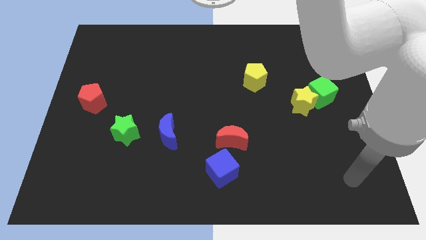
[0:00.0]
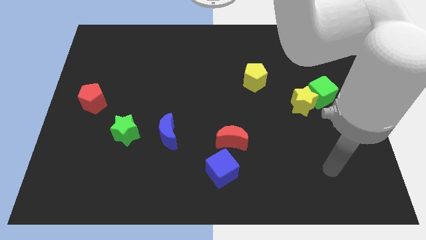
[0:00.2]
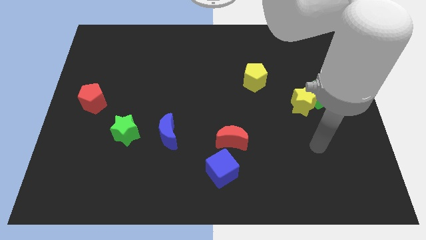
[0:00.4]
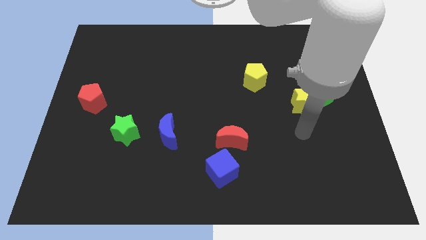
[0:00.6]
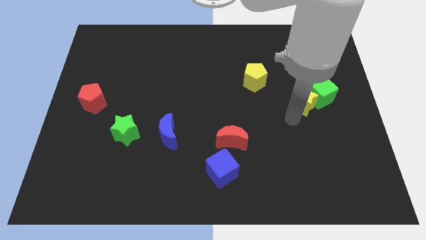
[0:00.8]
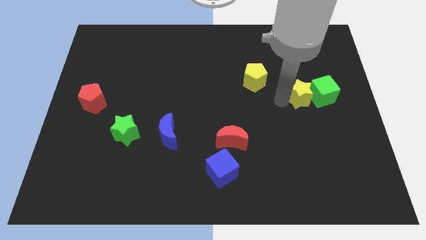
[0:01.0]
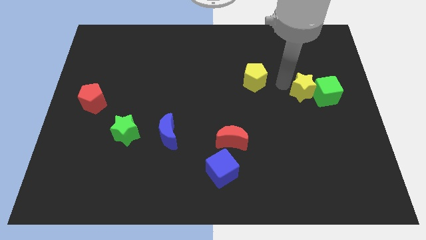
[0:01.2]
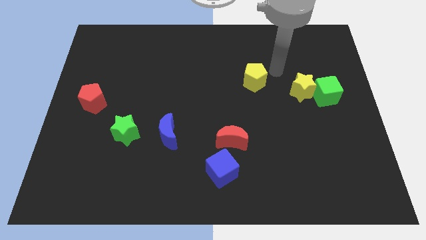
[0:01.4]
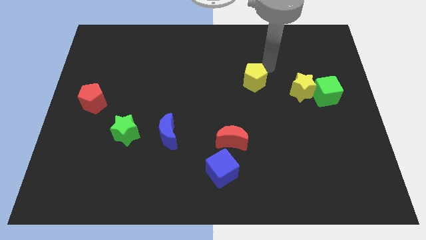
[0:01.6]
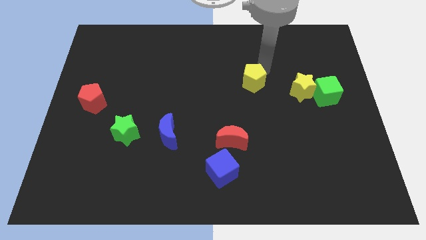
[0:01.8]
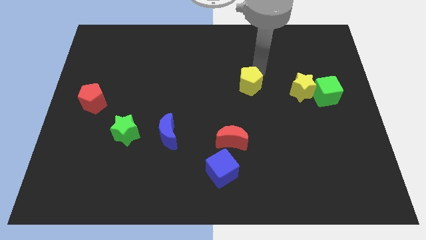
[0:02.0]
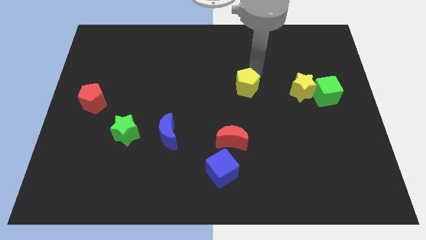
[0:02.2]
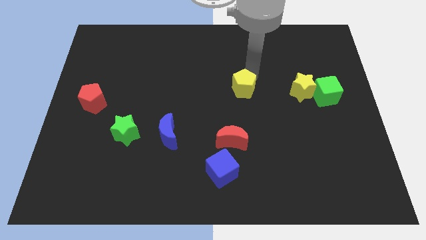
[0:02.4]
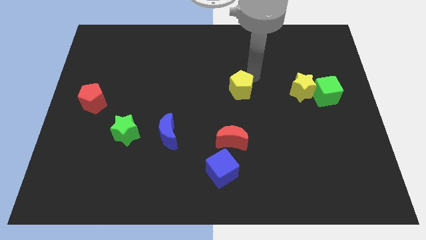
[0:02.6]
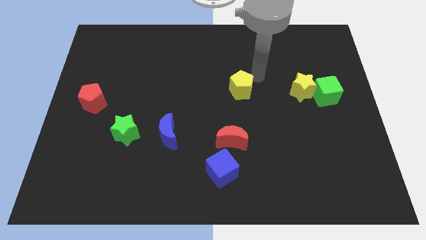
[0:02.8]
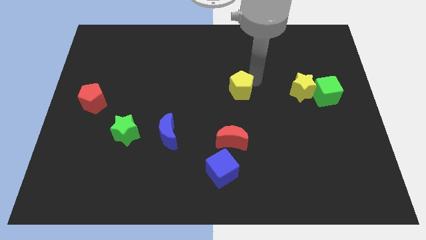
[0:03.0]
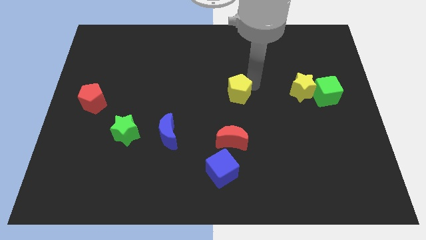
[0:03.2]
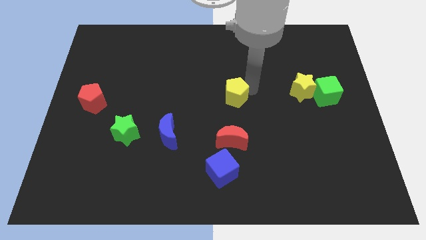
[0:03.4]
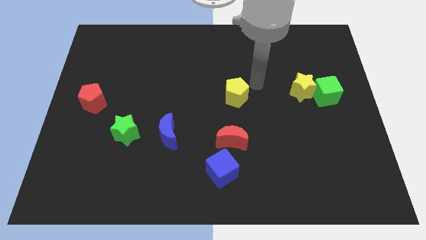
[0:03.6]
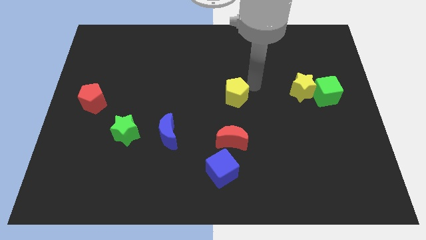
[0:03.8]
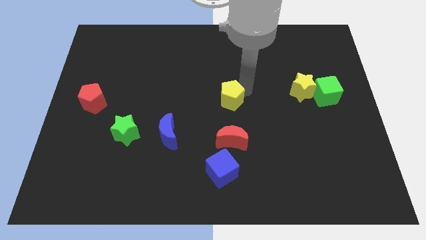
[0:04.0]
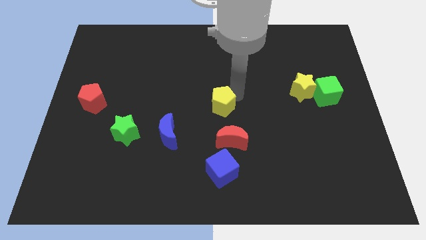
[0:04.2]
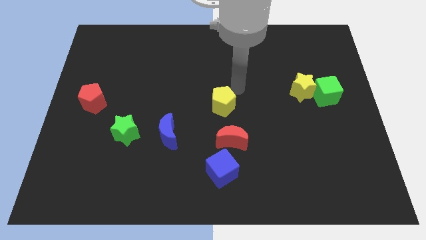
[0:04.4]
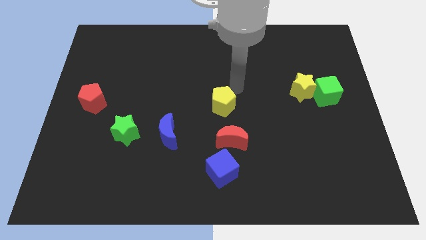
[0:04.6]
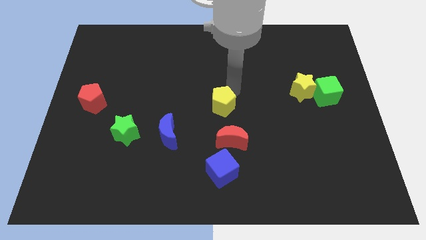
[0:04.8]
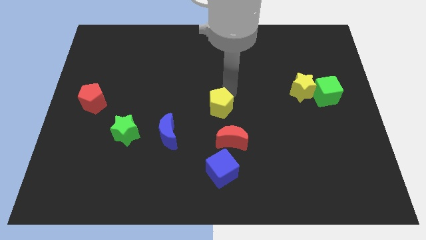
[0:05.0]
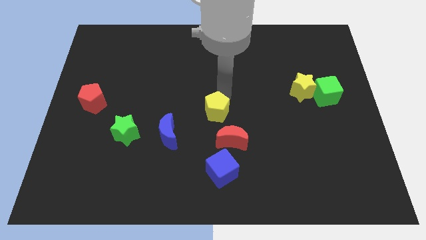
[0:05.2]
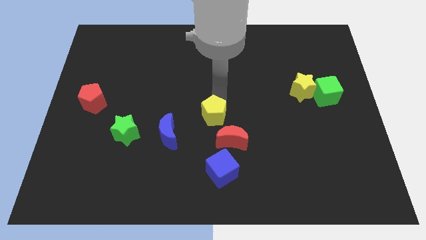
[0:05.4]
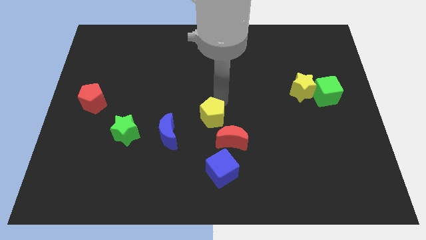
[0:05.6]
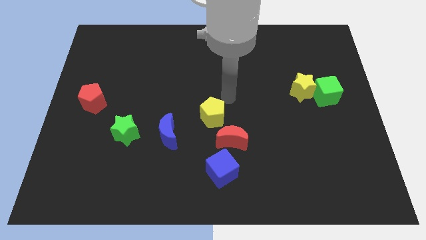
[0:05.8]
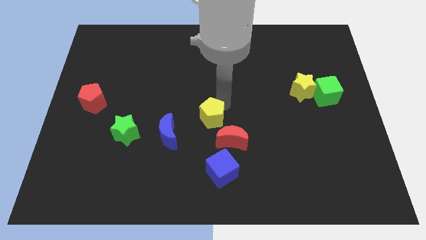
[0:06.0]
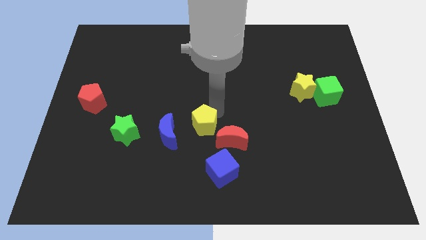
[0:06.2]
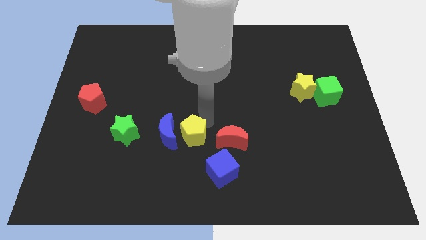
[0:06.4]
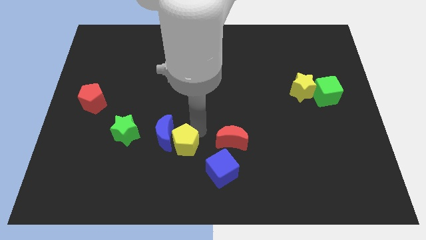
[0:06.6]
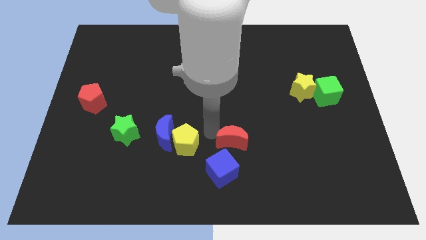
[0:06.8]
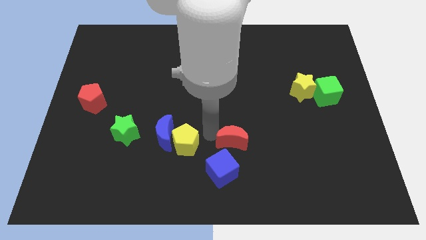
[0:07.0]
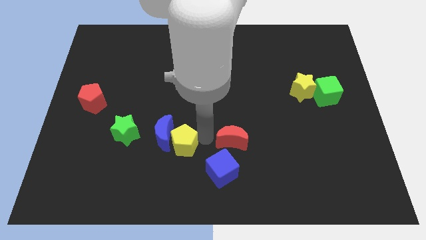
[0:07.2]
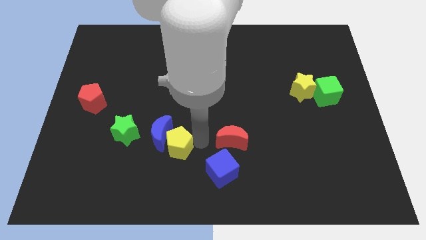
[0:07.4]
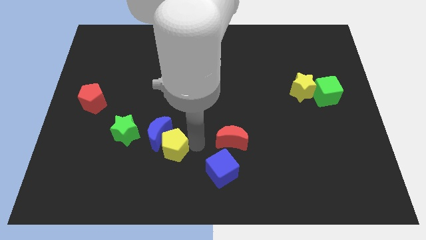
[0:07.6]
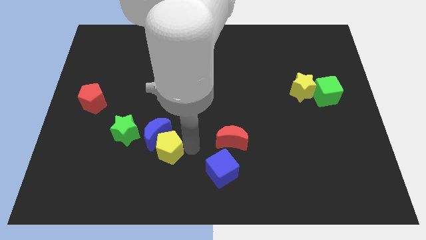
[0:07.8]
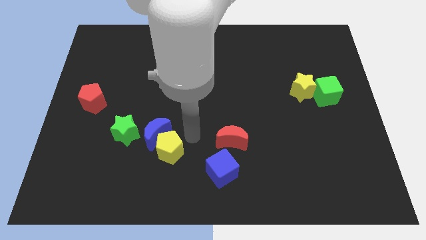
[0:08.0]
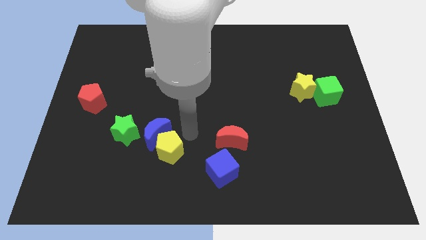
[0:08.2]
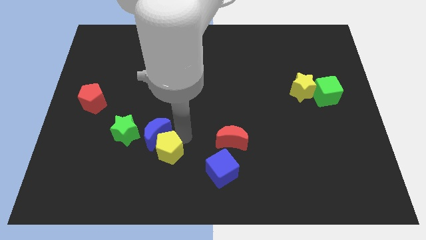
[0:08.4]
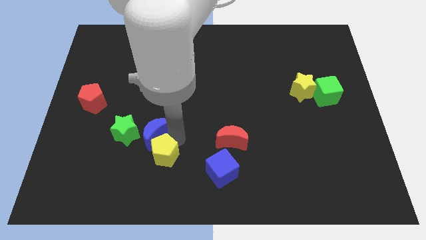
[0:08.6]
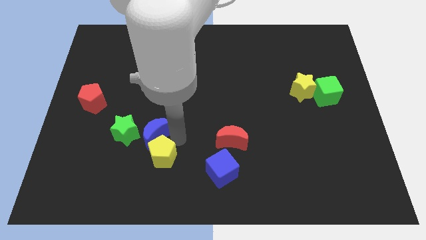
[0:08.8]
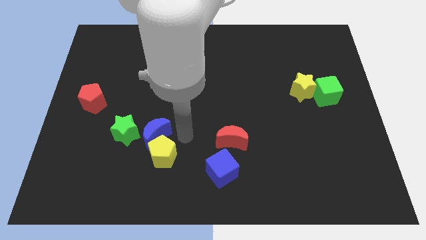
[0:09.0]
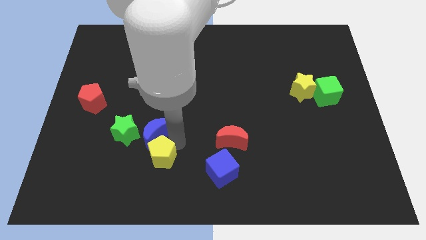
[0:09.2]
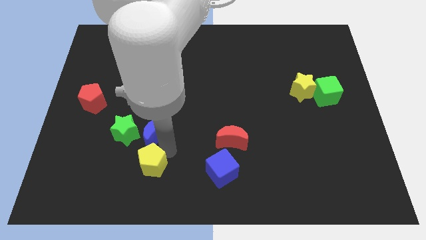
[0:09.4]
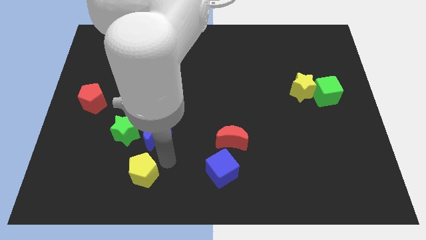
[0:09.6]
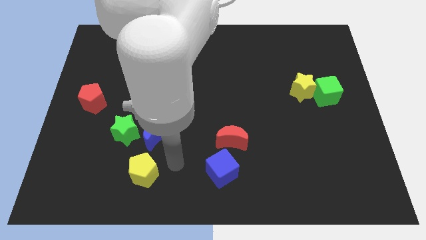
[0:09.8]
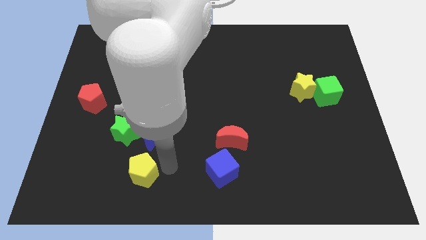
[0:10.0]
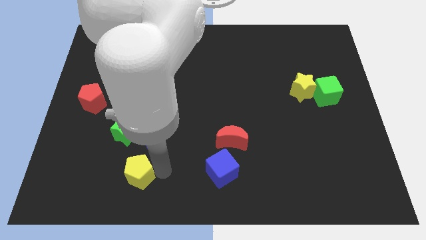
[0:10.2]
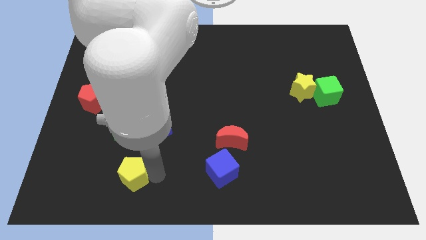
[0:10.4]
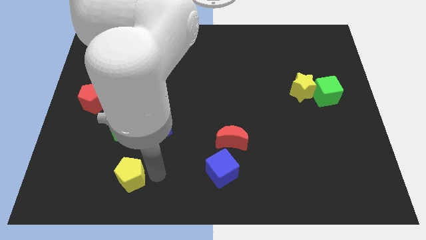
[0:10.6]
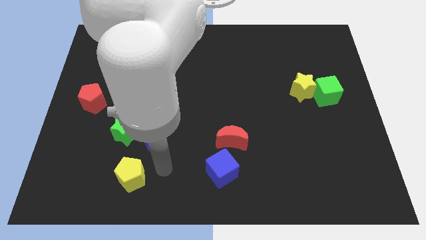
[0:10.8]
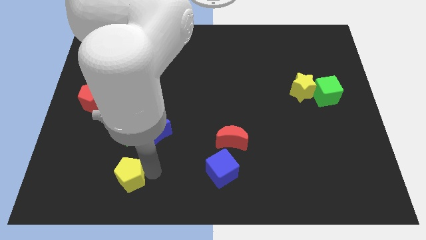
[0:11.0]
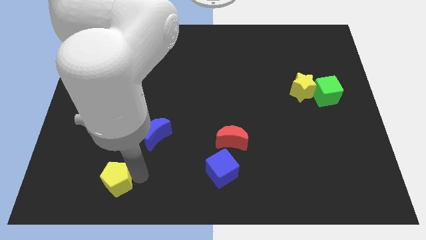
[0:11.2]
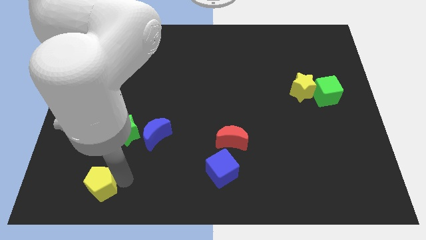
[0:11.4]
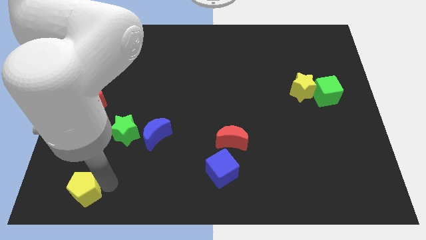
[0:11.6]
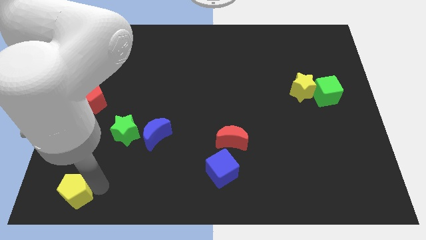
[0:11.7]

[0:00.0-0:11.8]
move the yellow pentagon to the bottom left
